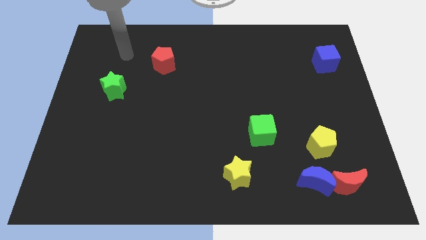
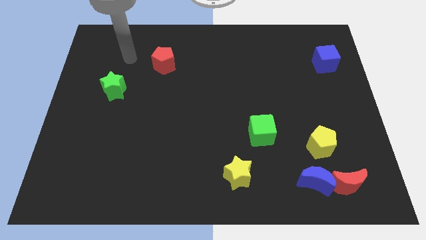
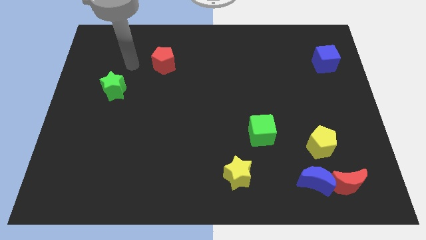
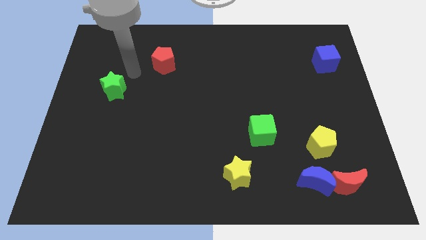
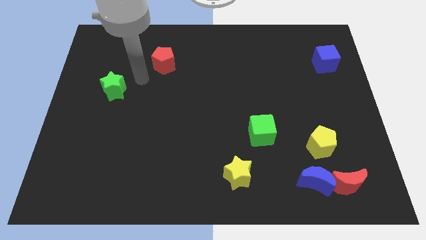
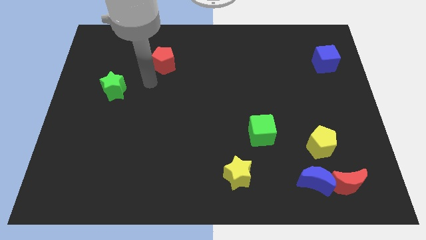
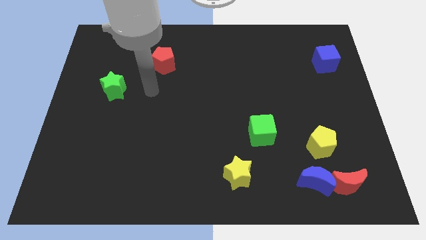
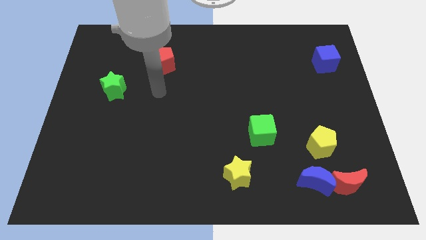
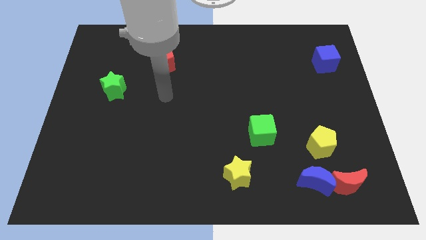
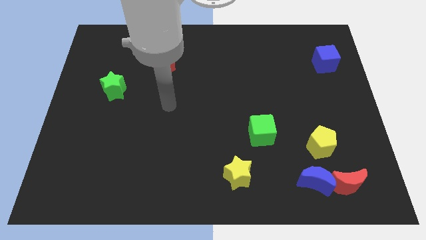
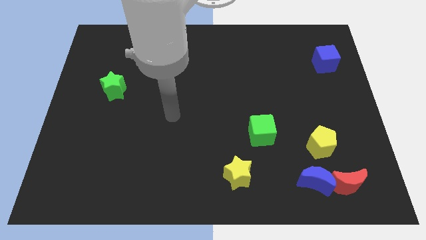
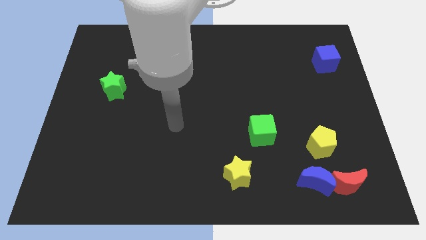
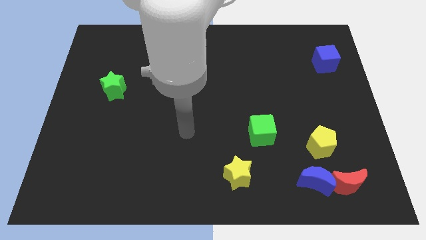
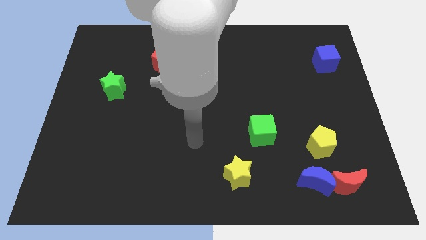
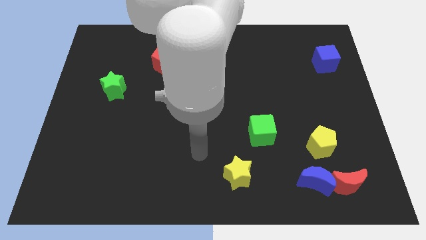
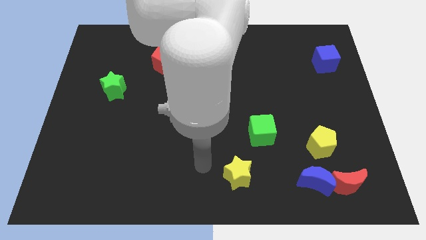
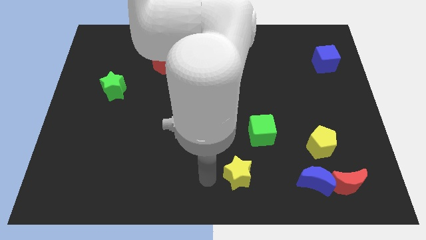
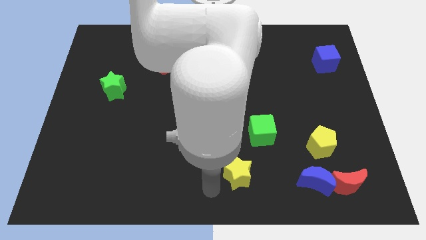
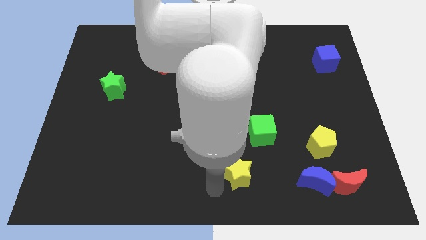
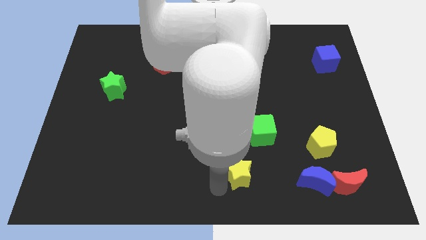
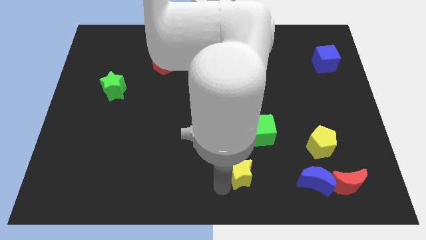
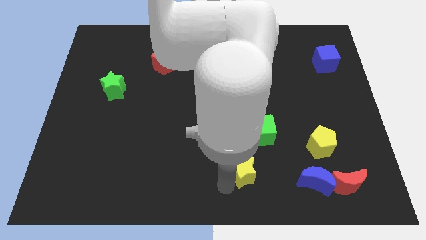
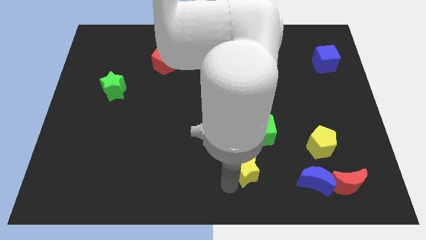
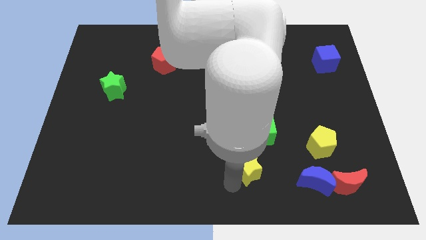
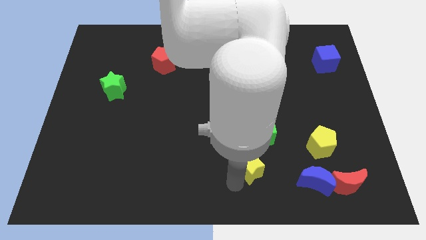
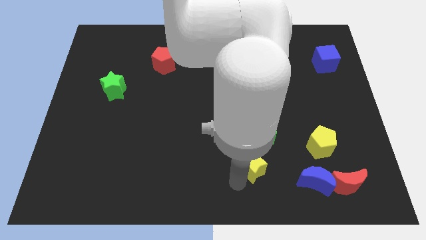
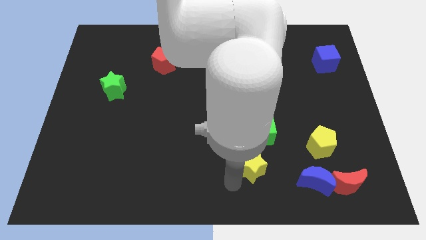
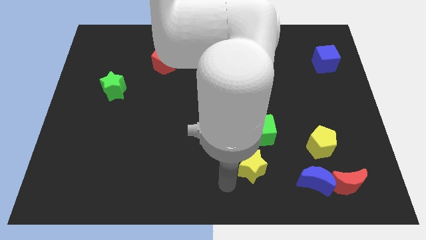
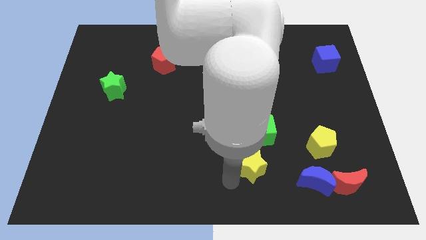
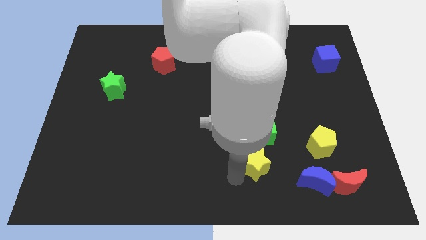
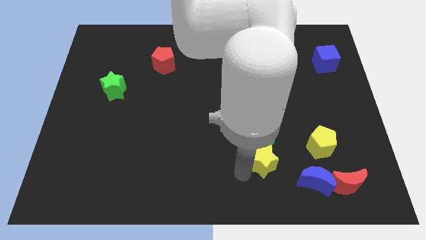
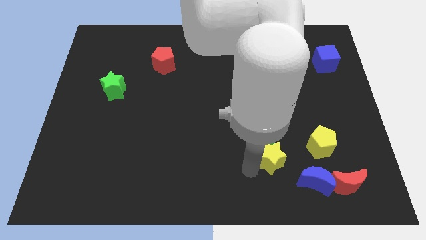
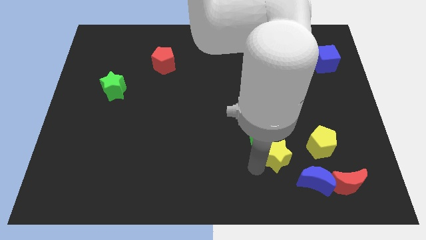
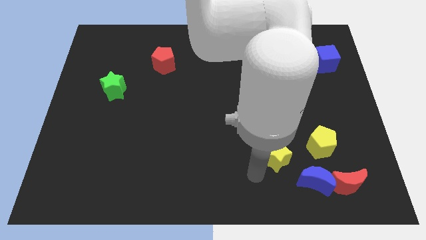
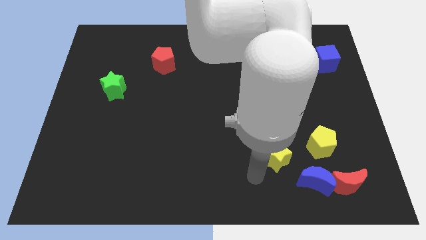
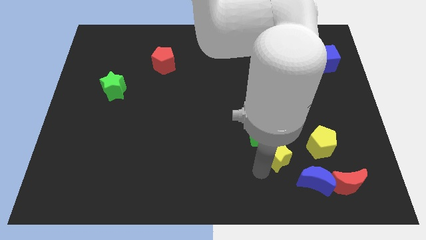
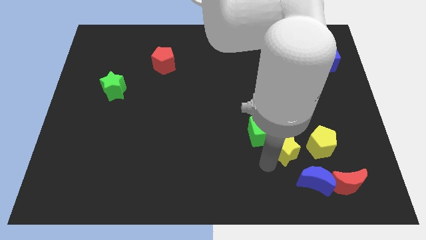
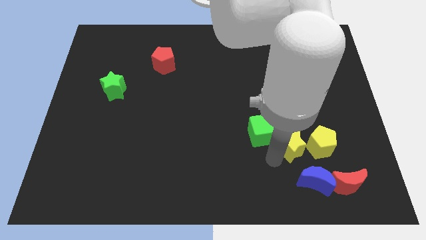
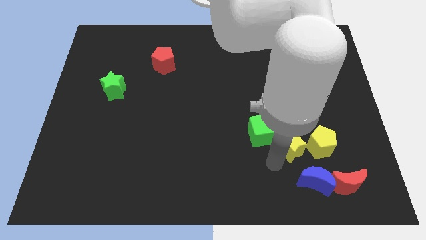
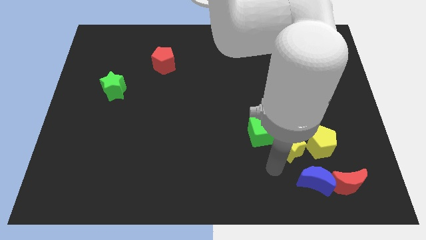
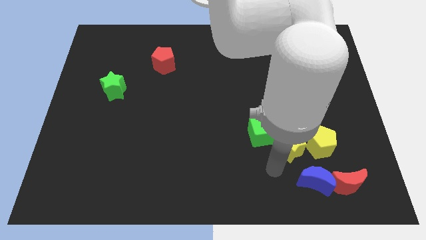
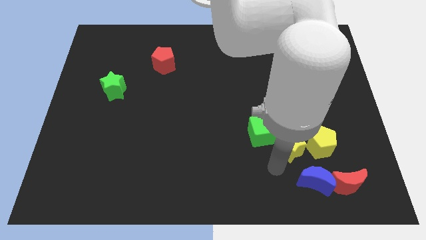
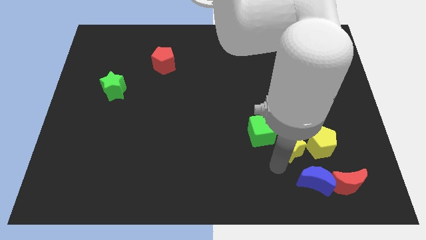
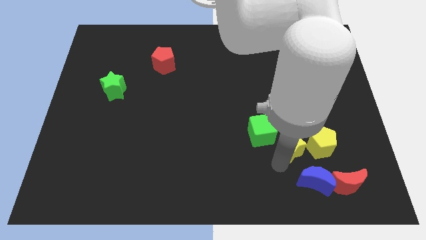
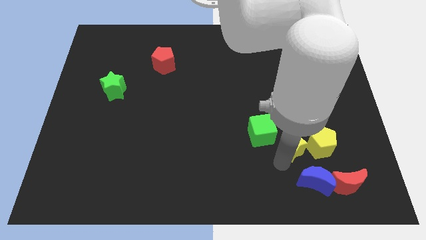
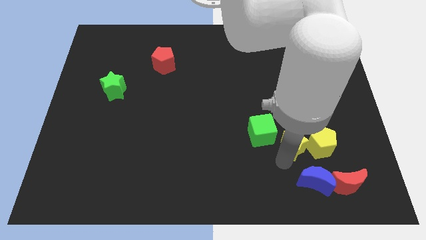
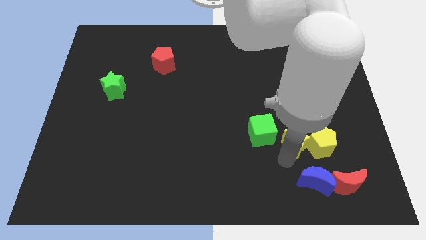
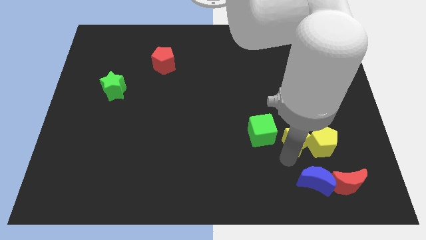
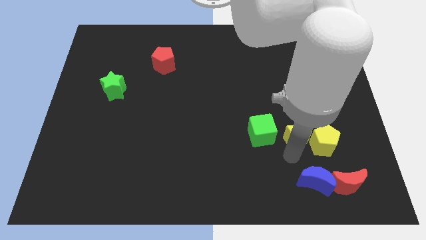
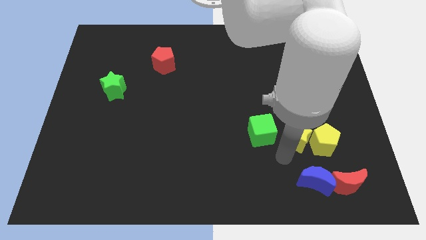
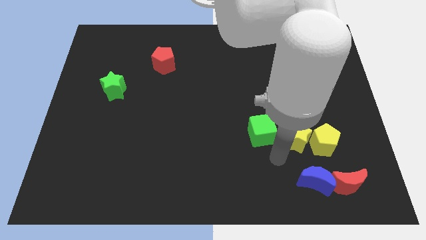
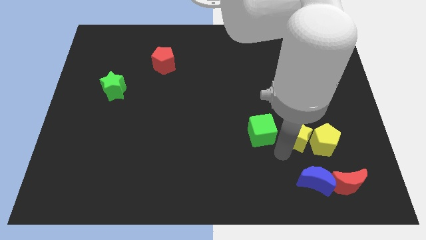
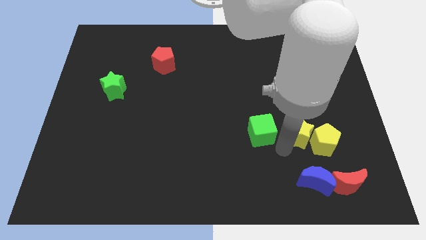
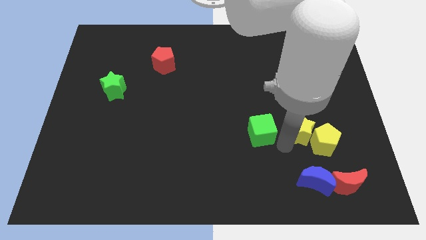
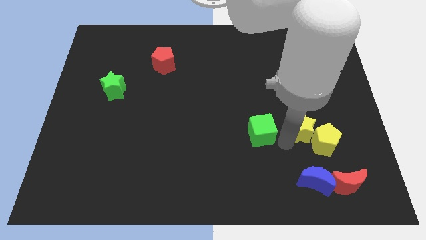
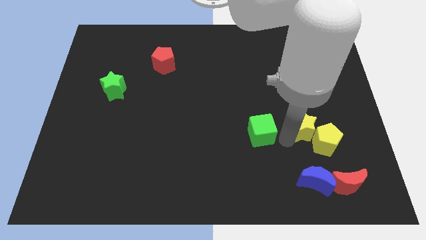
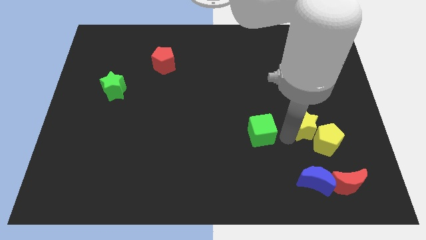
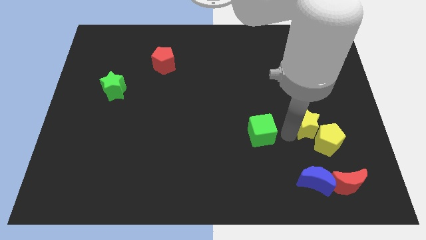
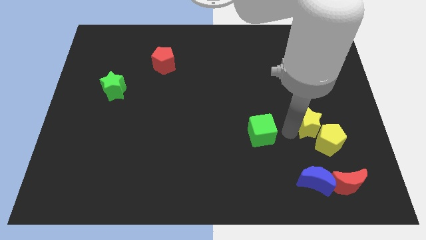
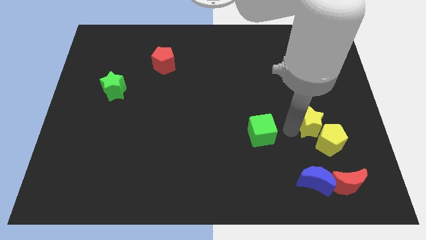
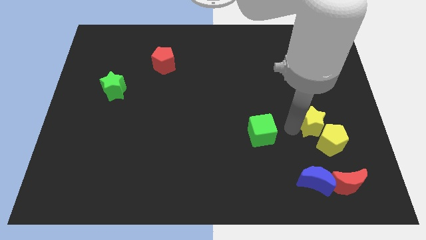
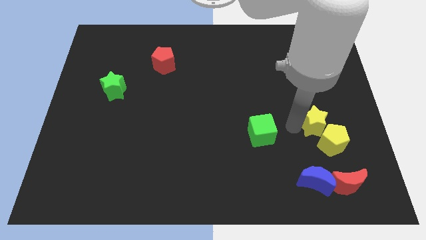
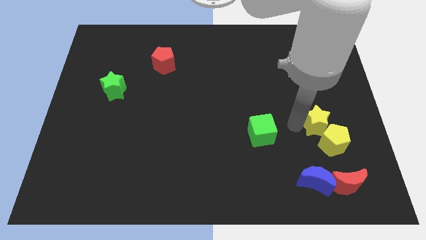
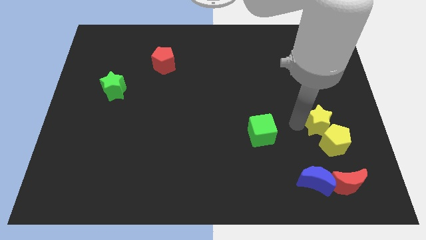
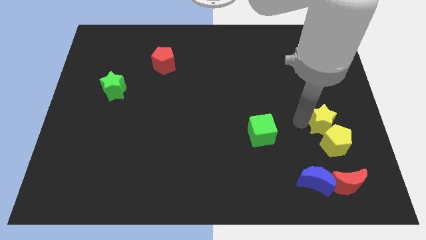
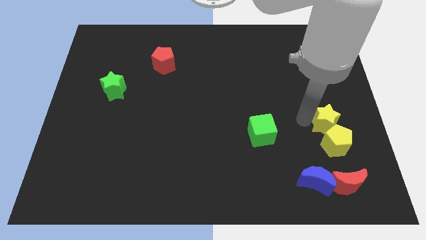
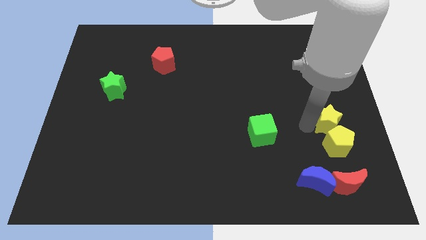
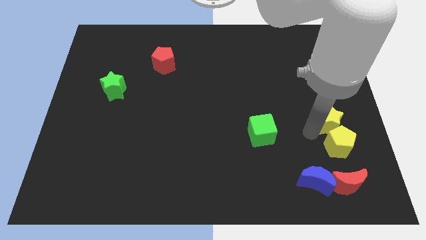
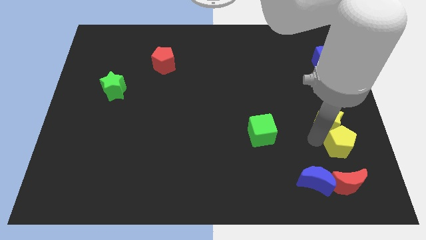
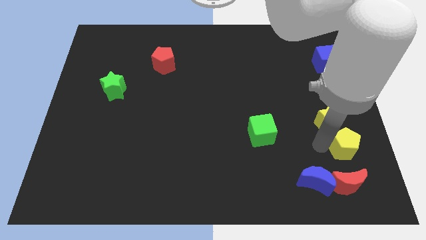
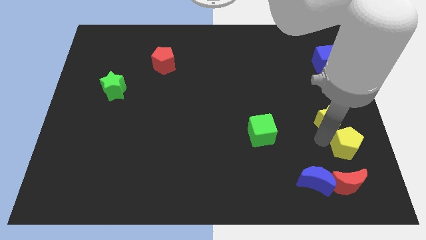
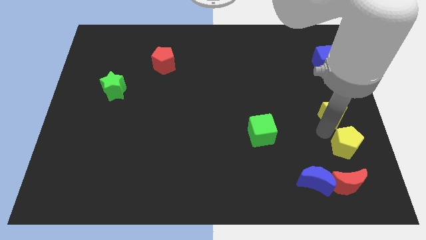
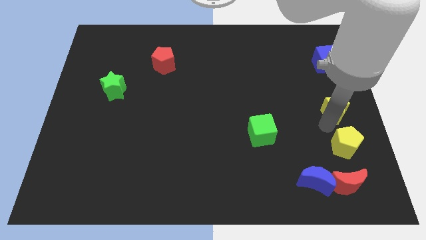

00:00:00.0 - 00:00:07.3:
put the yellow star below the blue cube
